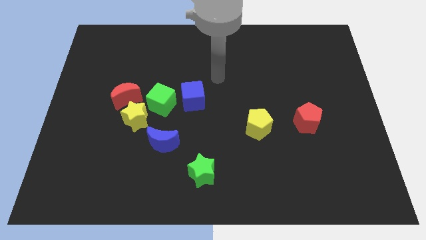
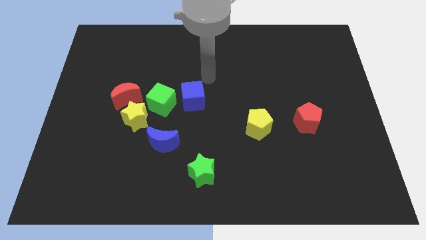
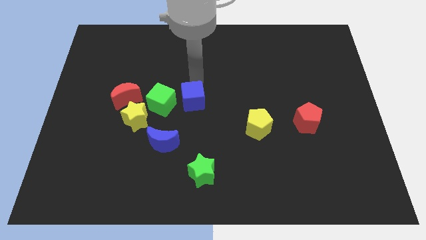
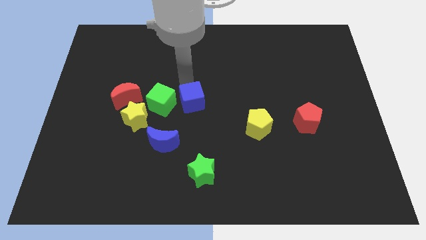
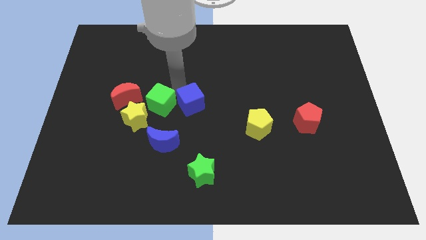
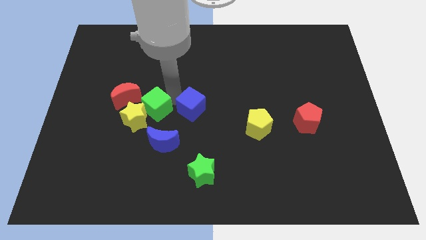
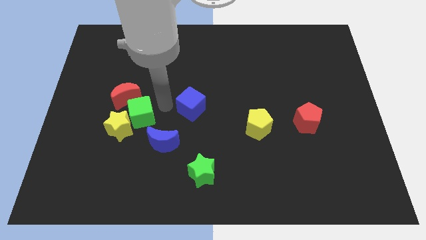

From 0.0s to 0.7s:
pull the blue cube apart from the green cube

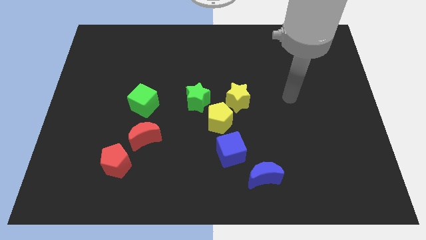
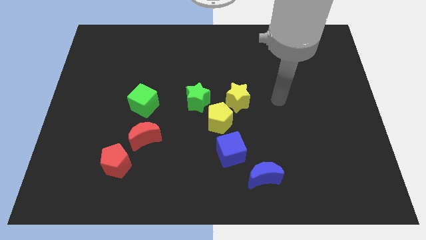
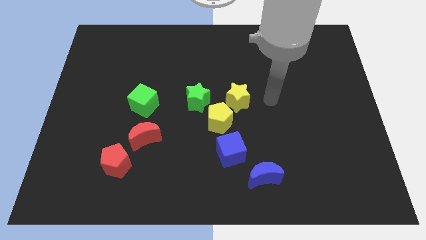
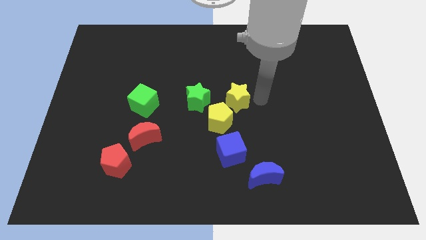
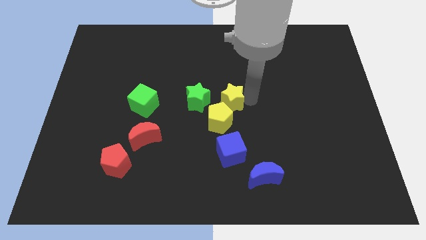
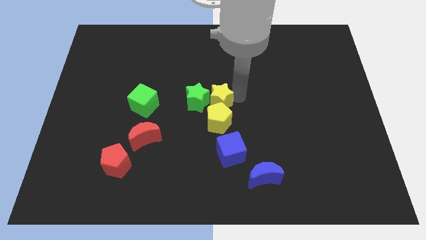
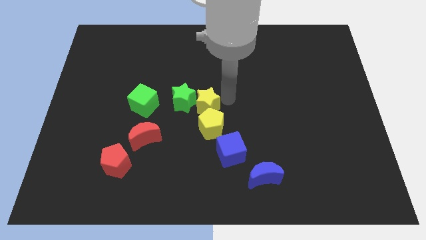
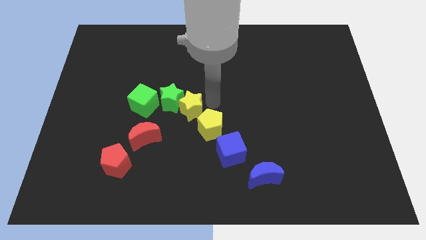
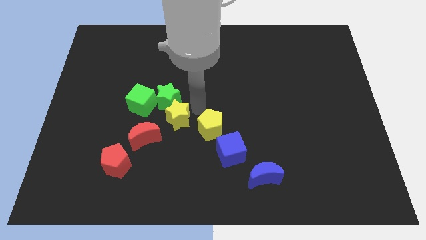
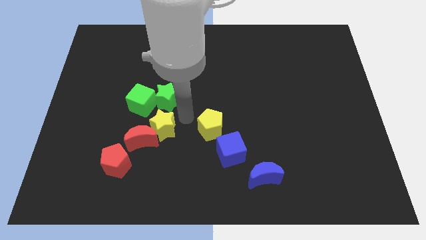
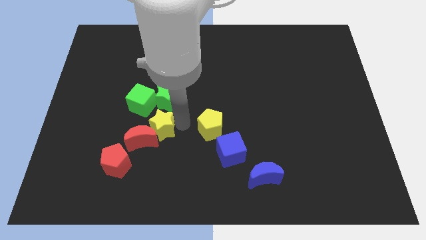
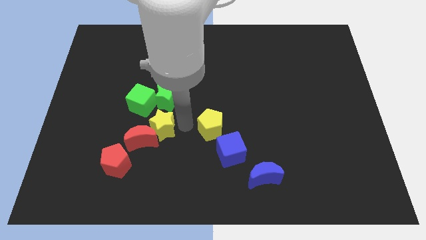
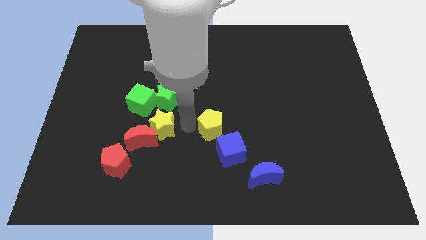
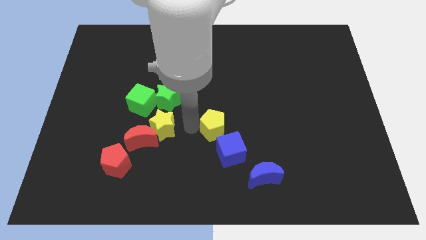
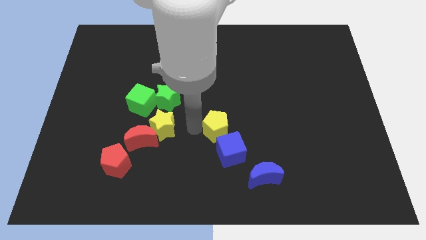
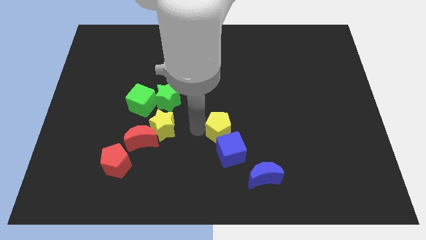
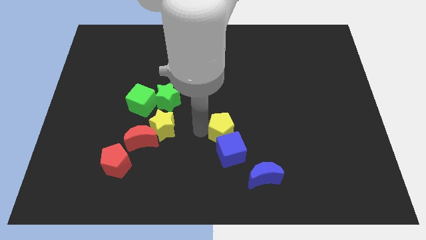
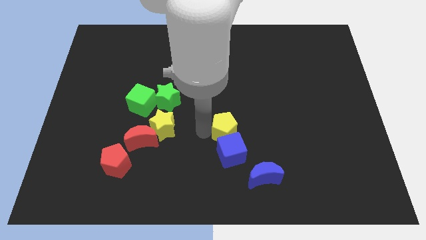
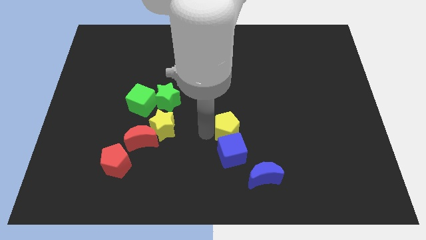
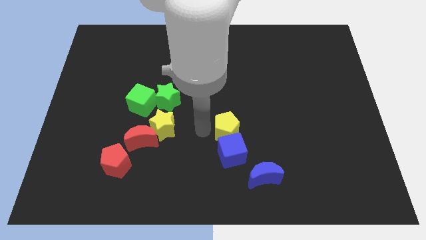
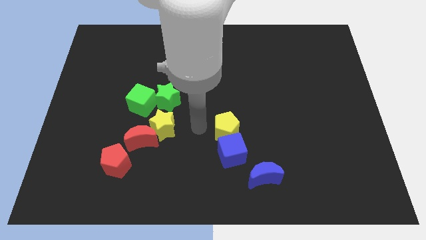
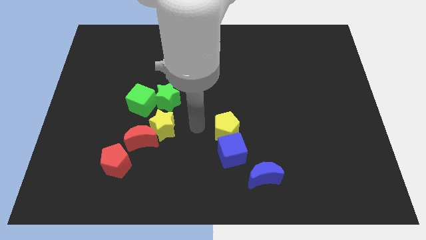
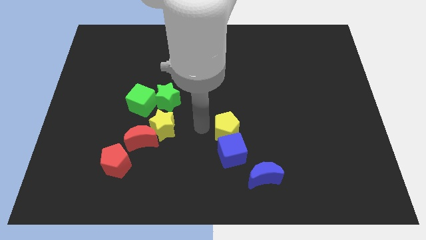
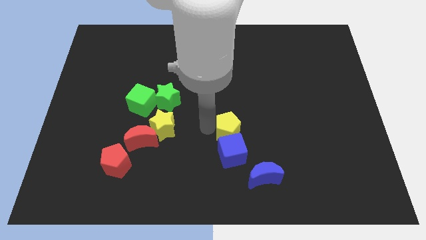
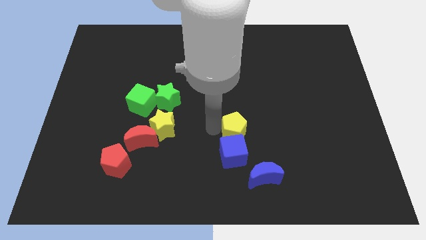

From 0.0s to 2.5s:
move the yellow pentagon away from the clump

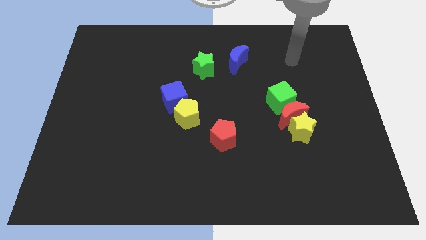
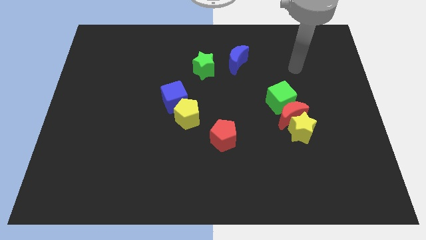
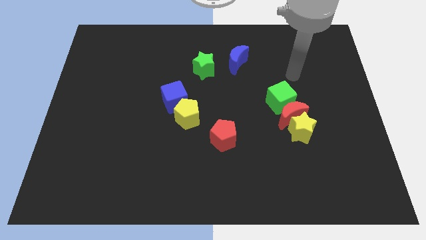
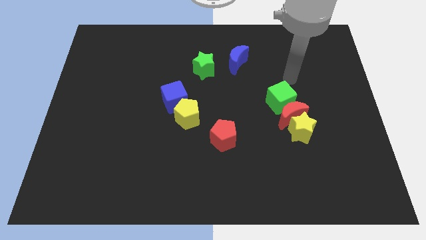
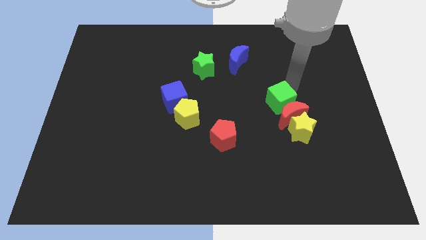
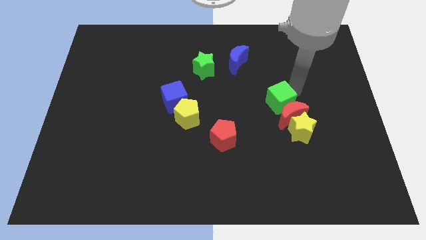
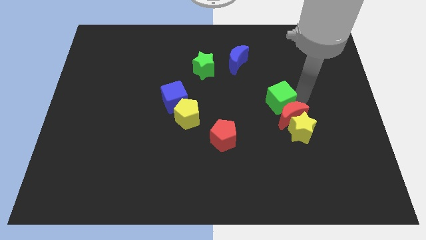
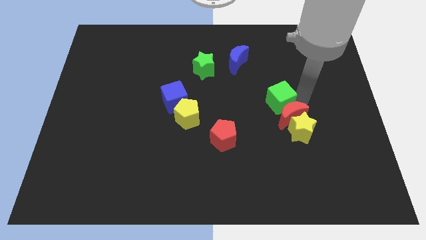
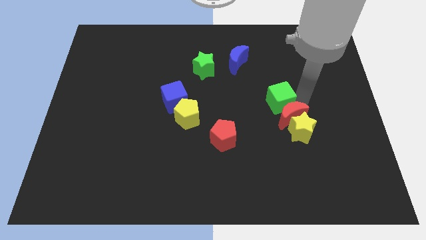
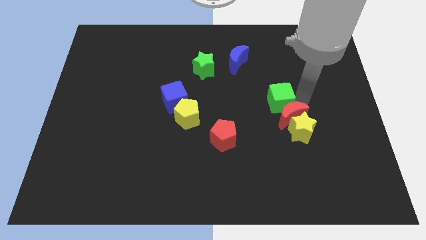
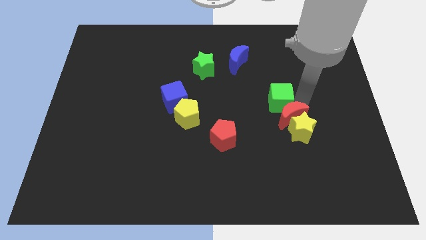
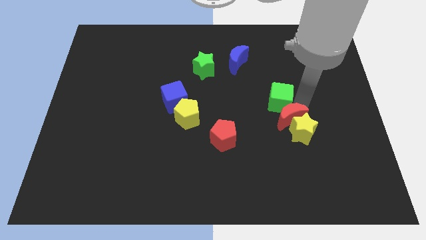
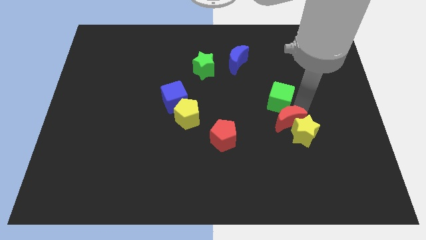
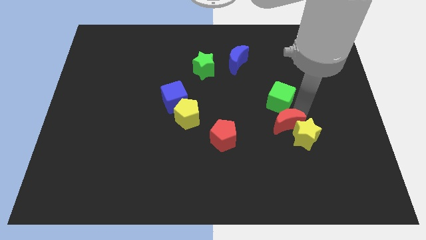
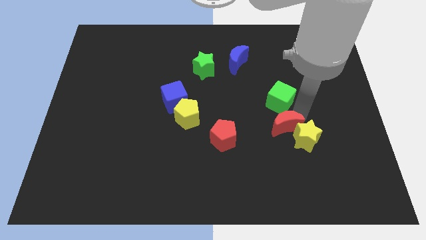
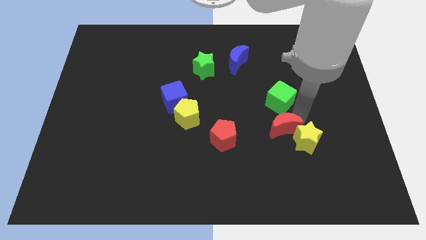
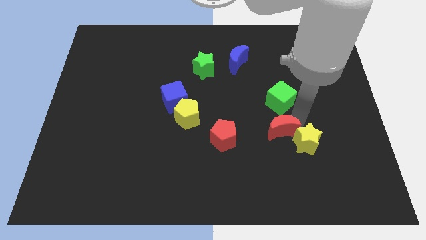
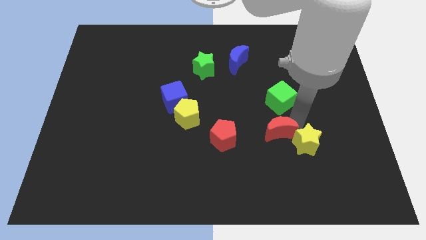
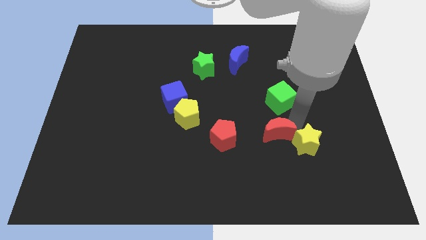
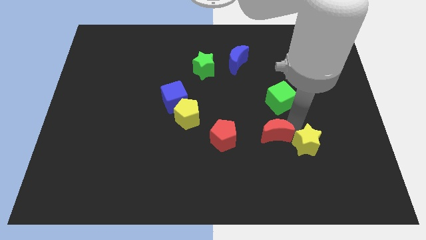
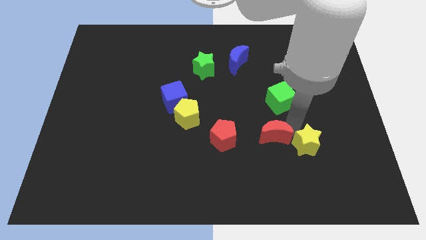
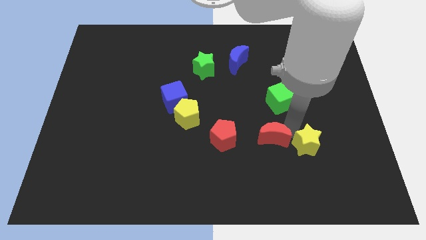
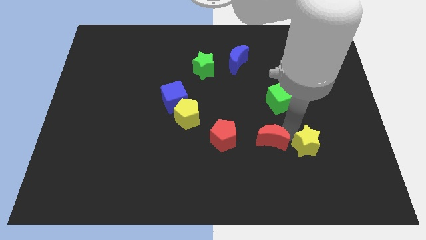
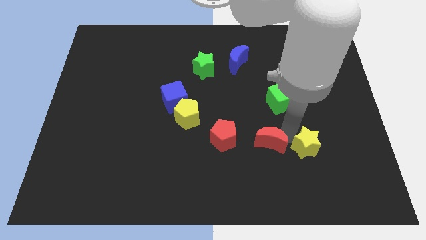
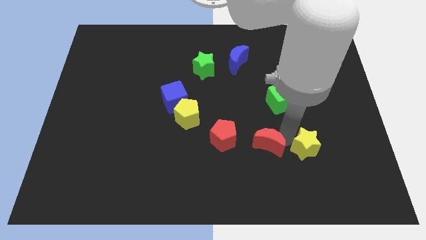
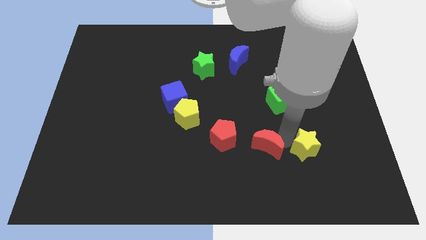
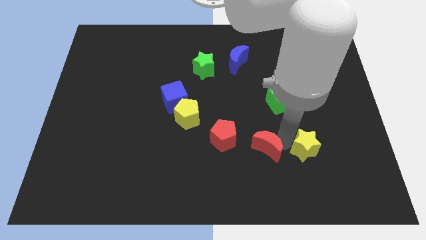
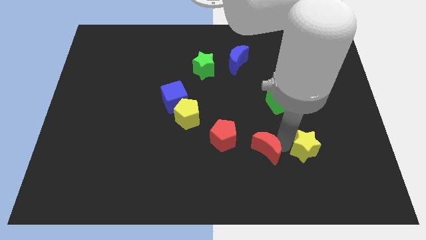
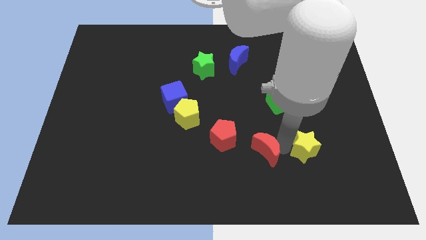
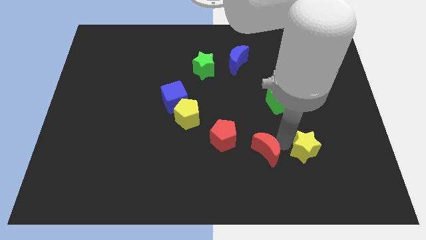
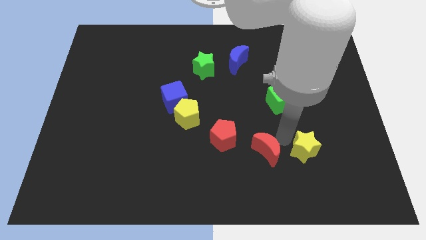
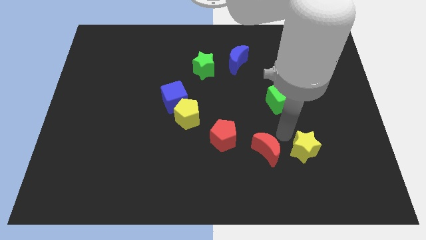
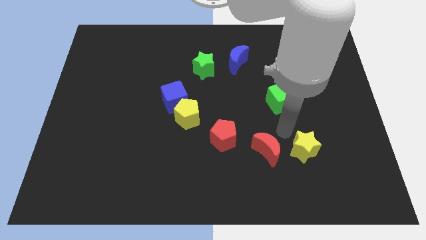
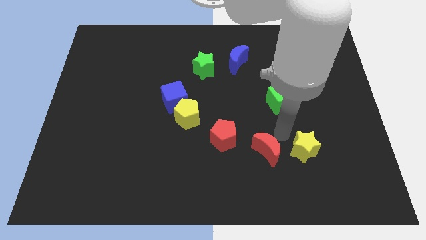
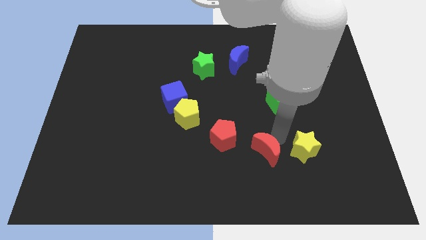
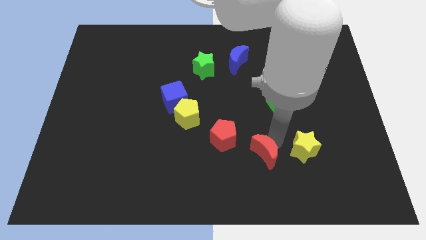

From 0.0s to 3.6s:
separate the red moon from the yellow star and green cube

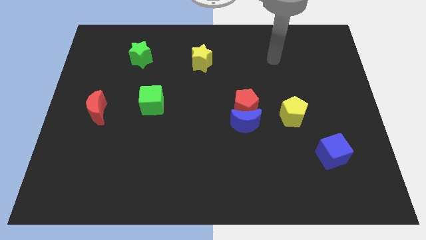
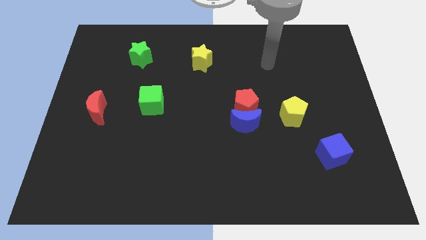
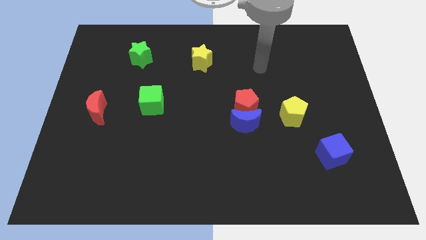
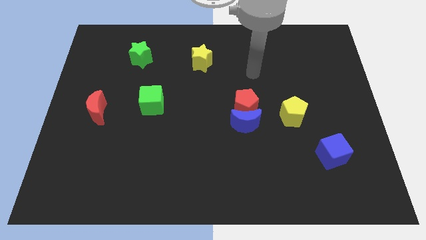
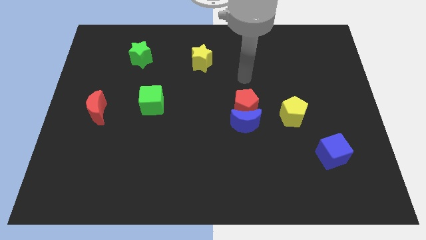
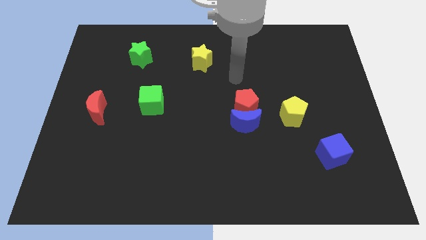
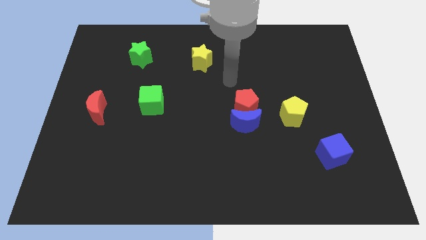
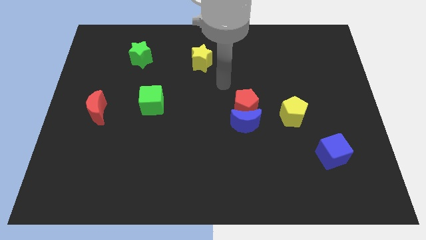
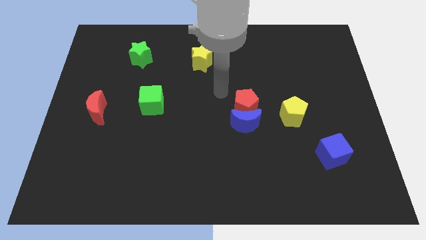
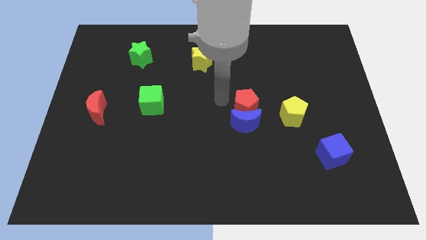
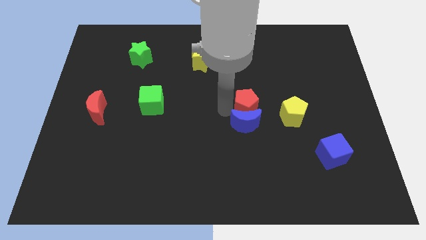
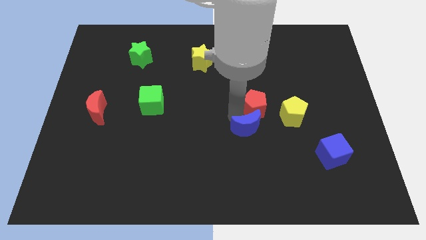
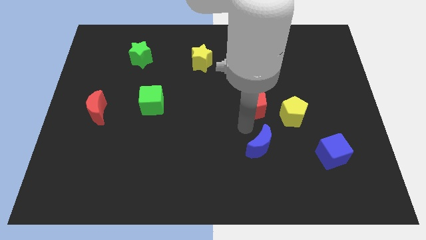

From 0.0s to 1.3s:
move the red pentagon away from the blue moon

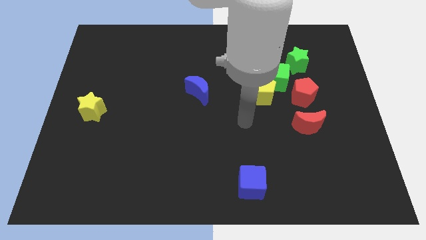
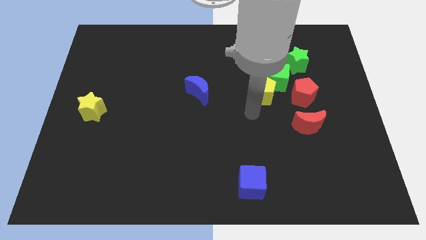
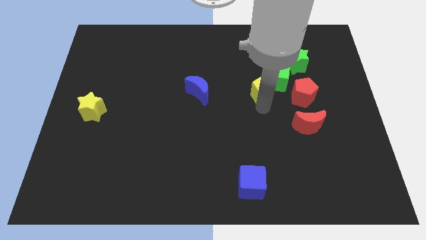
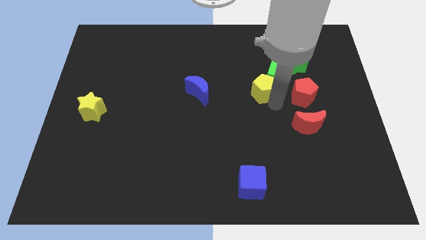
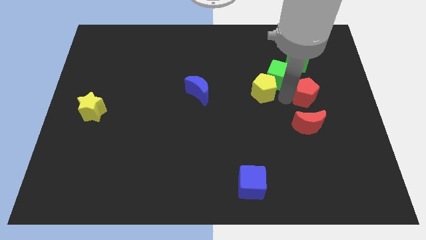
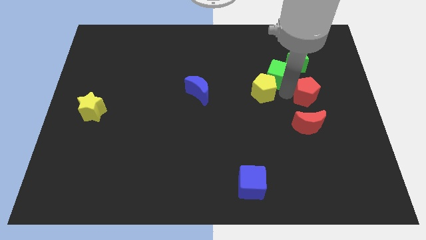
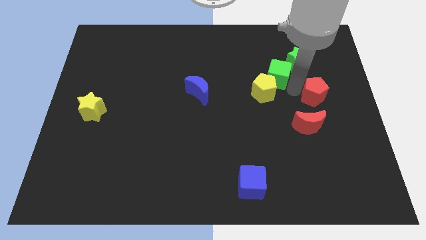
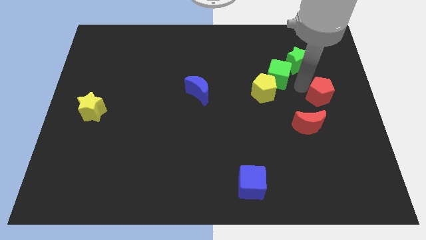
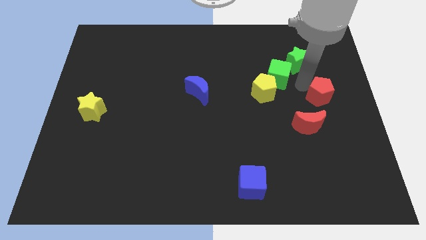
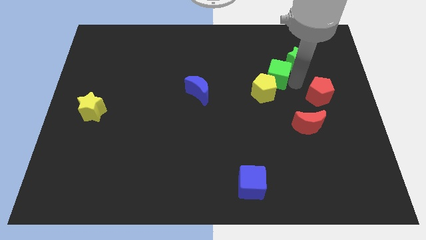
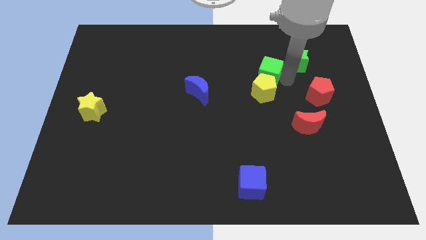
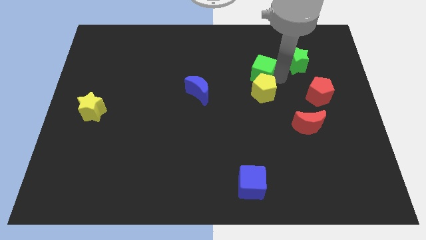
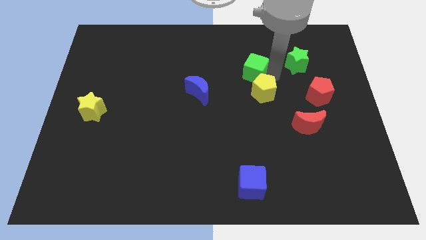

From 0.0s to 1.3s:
separate the green cube from the yellow pentagon, red pentagon, and green star
